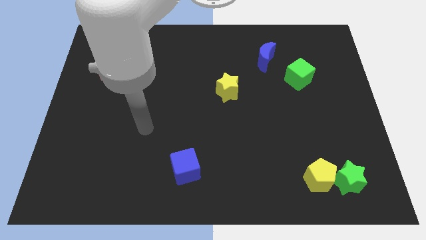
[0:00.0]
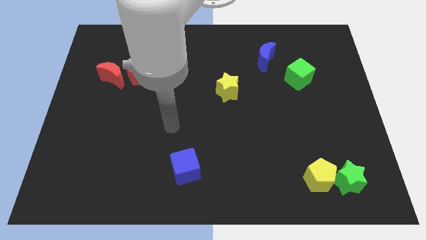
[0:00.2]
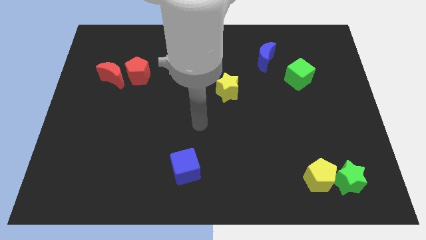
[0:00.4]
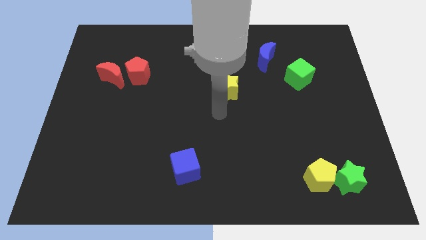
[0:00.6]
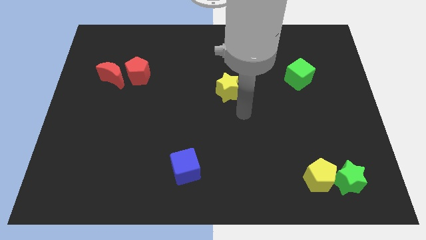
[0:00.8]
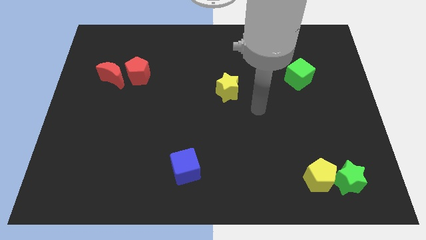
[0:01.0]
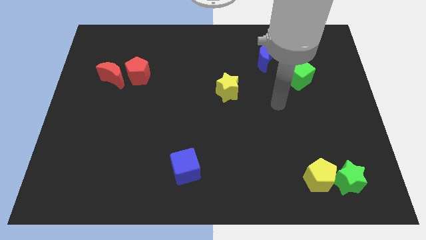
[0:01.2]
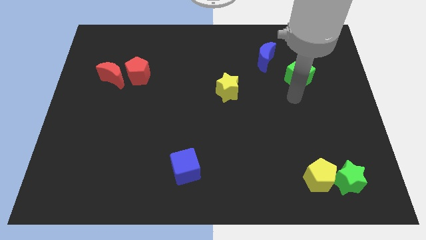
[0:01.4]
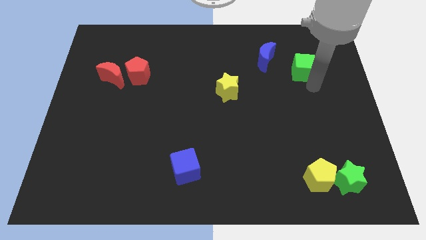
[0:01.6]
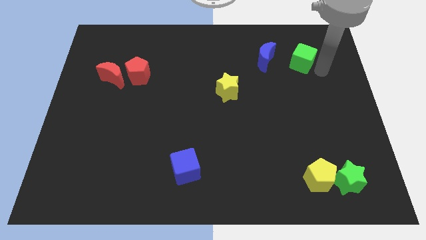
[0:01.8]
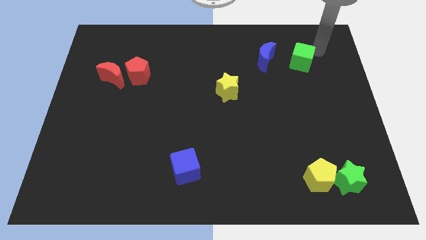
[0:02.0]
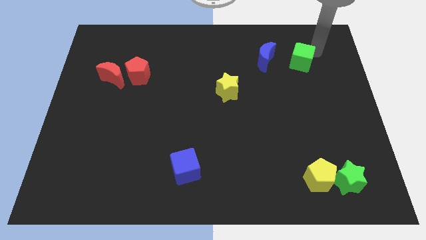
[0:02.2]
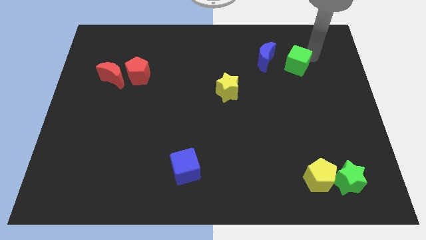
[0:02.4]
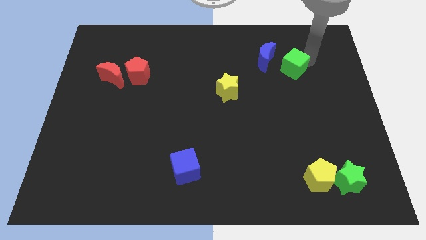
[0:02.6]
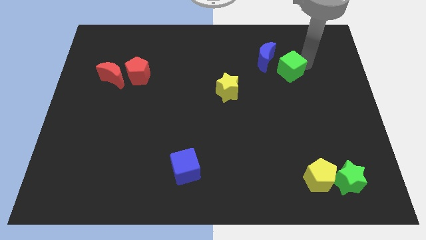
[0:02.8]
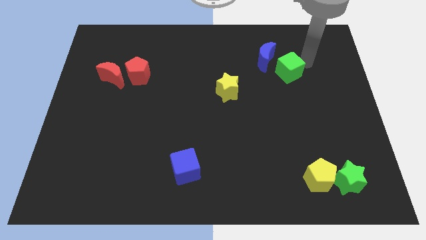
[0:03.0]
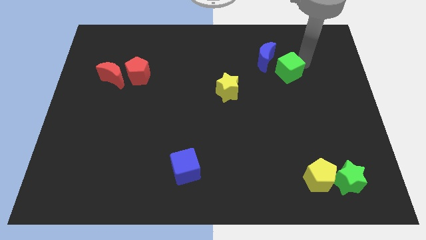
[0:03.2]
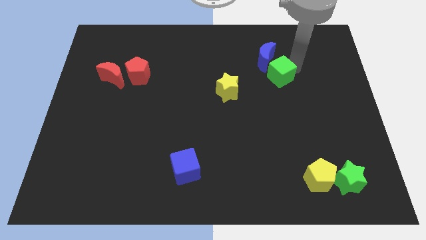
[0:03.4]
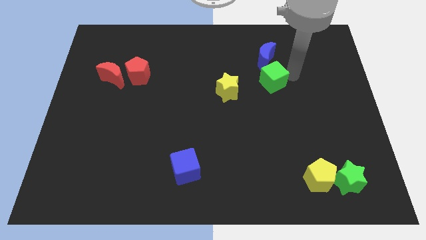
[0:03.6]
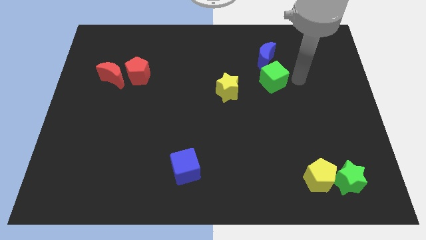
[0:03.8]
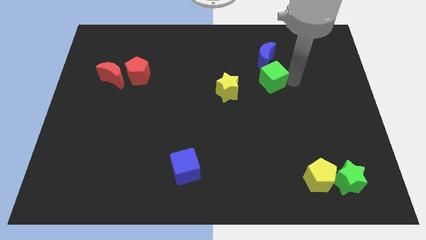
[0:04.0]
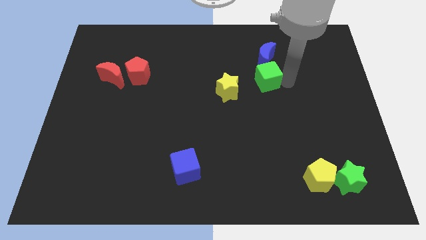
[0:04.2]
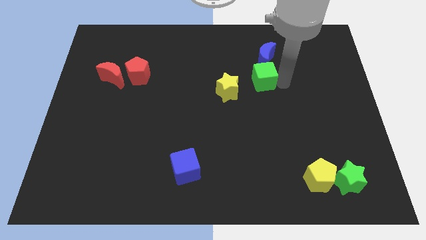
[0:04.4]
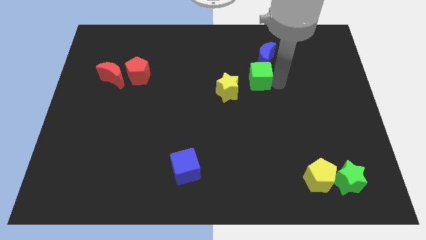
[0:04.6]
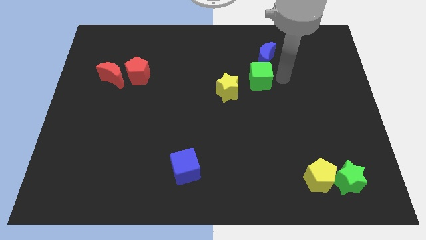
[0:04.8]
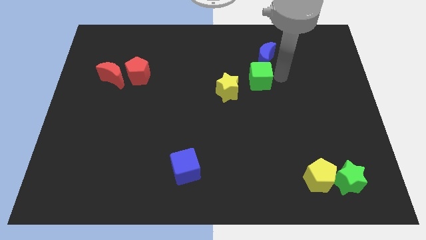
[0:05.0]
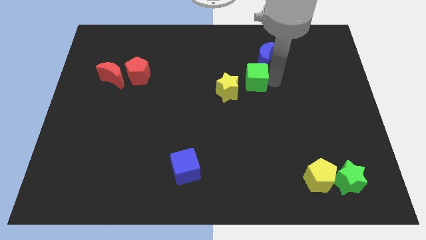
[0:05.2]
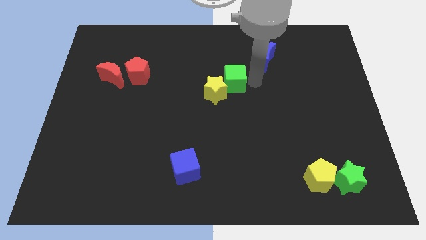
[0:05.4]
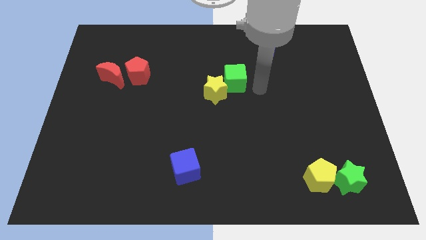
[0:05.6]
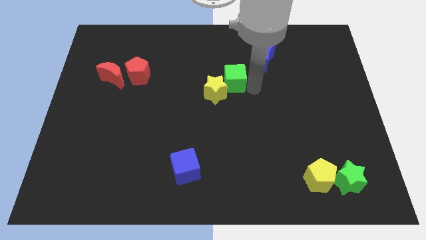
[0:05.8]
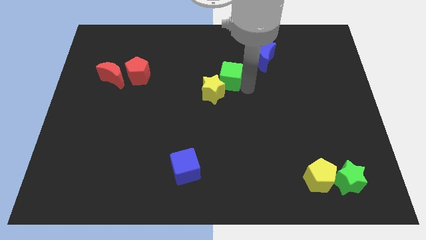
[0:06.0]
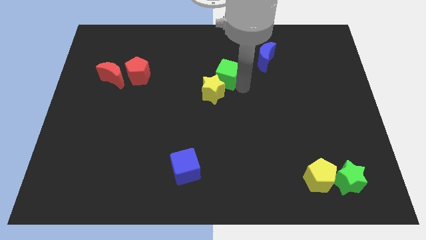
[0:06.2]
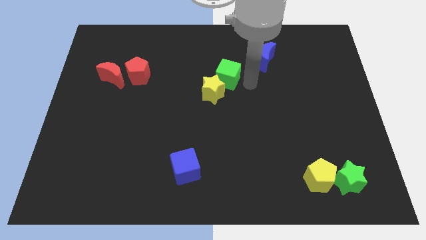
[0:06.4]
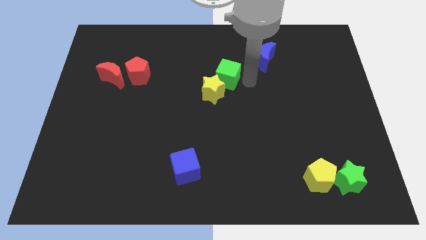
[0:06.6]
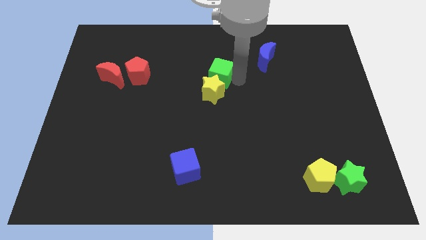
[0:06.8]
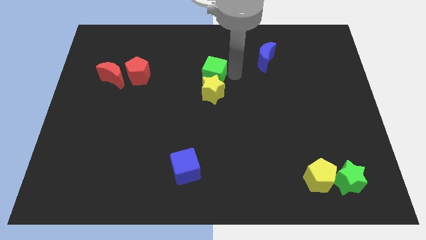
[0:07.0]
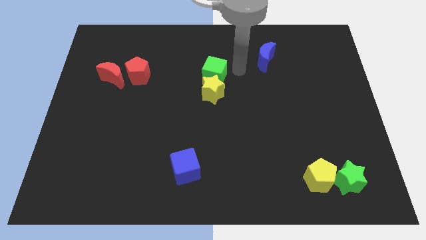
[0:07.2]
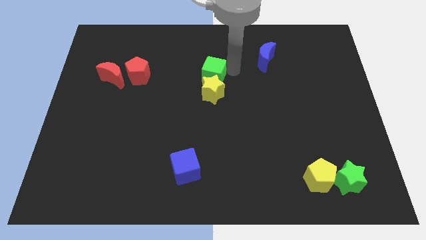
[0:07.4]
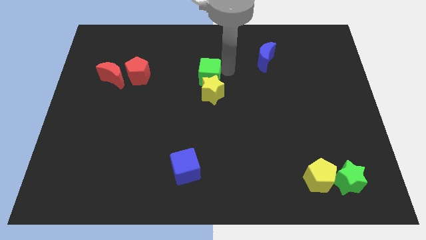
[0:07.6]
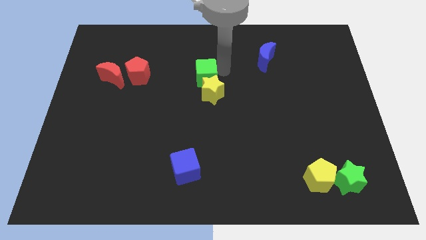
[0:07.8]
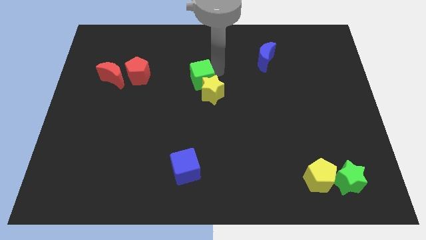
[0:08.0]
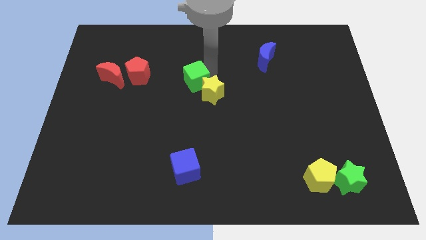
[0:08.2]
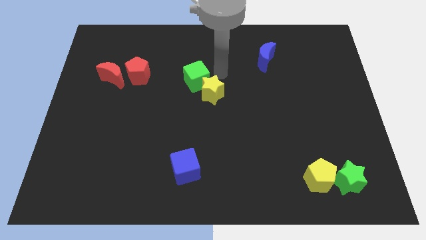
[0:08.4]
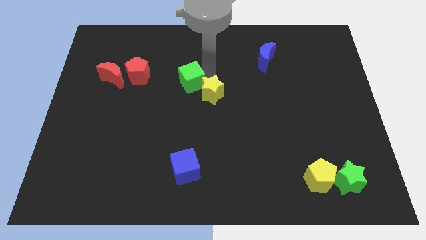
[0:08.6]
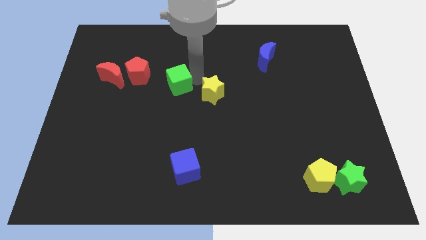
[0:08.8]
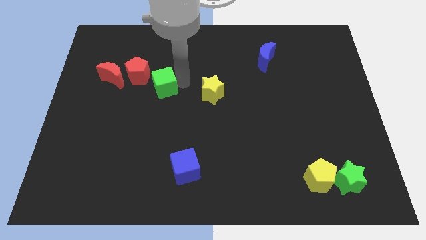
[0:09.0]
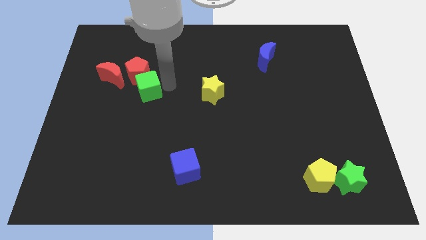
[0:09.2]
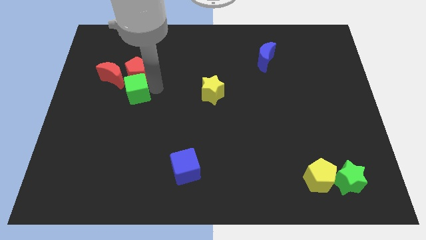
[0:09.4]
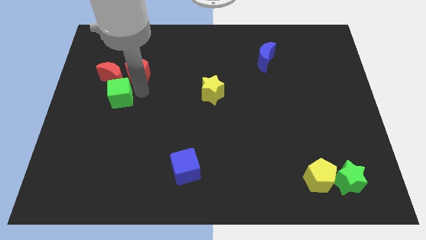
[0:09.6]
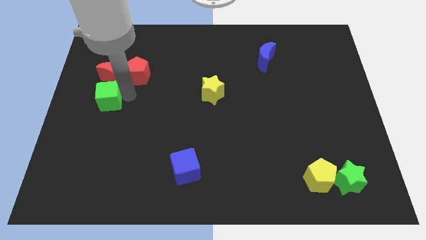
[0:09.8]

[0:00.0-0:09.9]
push the green cube to the center left

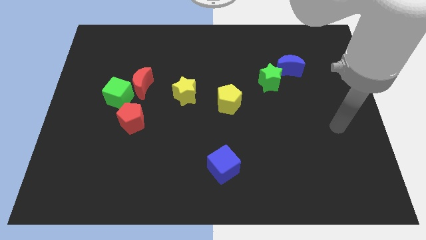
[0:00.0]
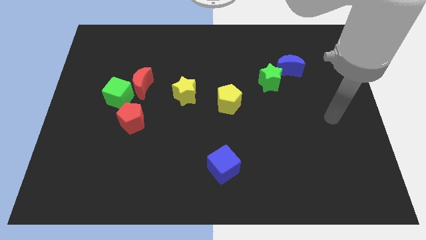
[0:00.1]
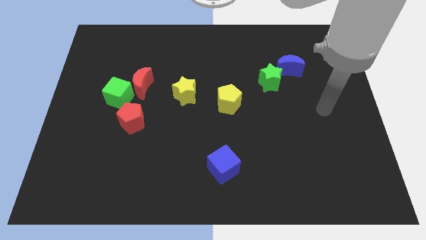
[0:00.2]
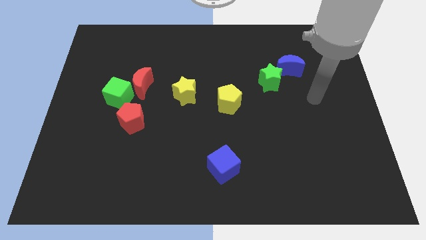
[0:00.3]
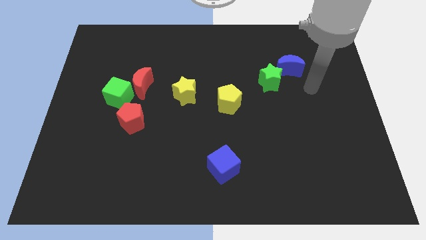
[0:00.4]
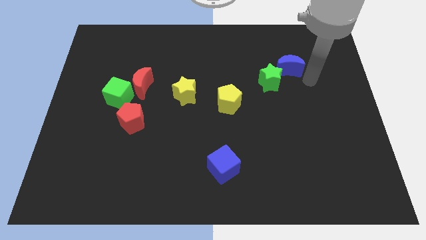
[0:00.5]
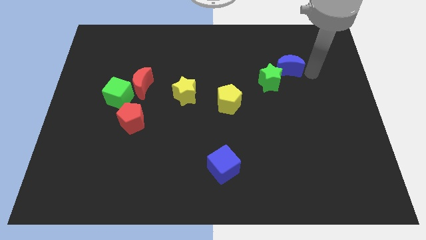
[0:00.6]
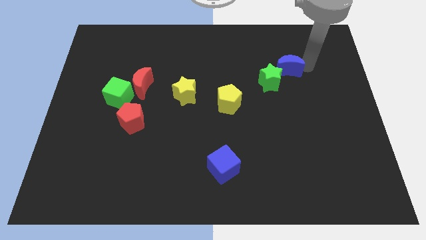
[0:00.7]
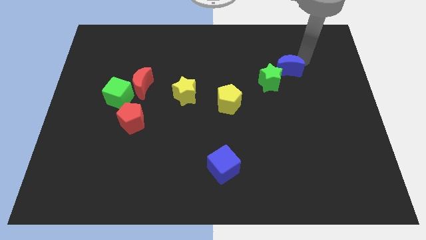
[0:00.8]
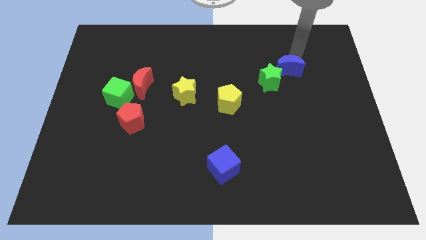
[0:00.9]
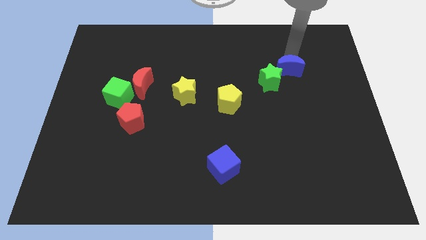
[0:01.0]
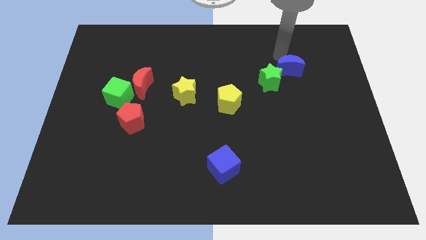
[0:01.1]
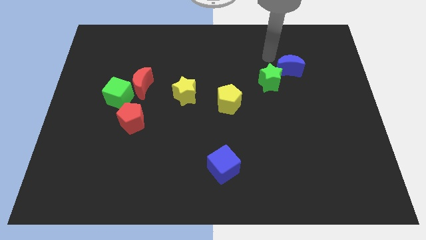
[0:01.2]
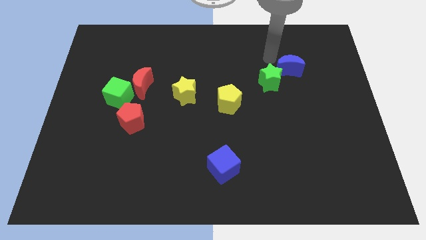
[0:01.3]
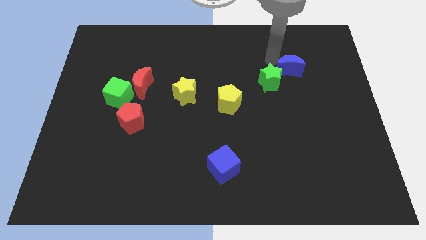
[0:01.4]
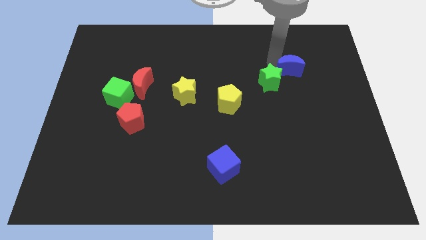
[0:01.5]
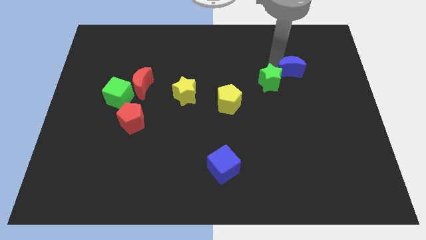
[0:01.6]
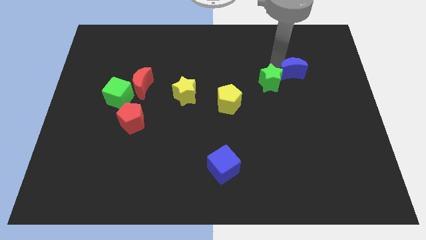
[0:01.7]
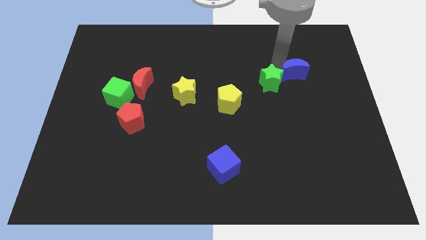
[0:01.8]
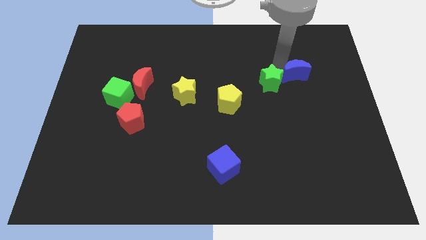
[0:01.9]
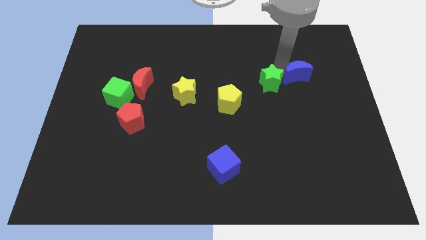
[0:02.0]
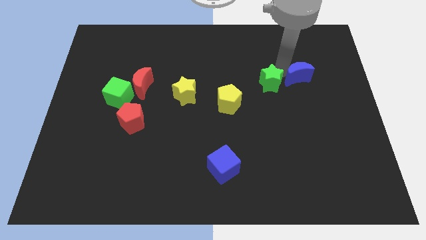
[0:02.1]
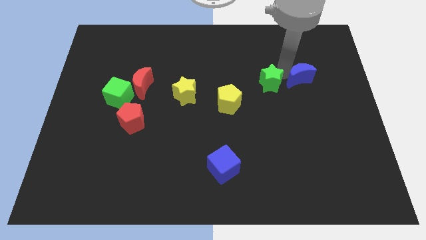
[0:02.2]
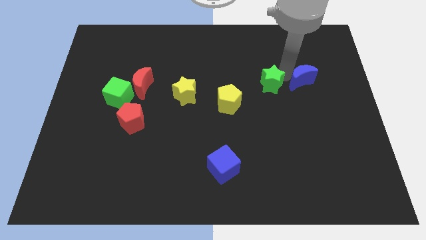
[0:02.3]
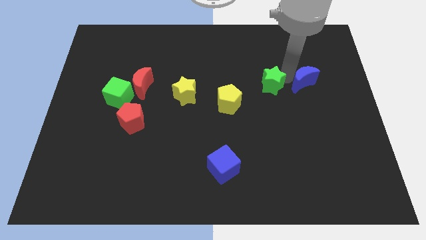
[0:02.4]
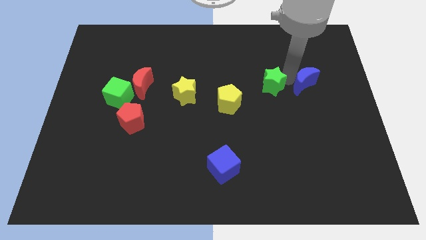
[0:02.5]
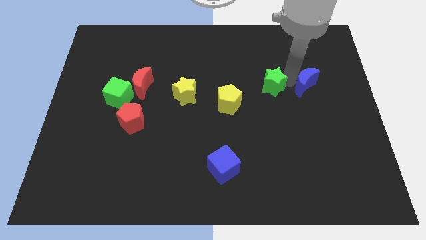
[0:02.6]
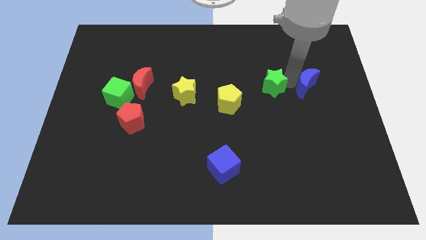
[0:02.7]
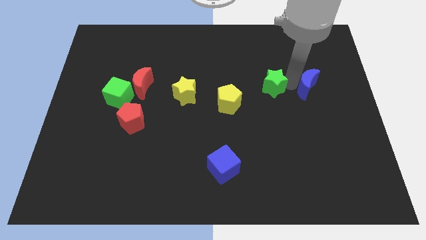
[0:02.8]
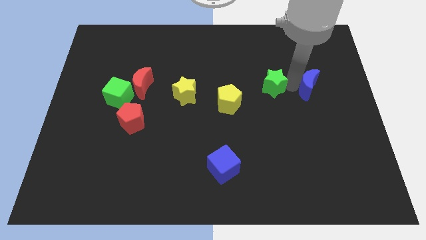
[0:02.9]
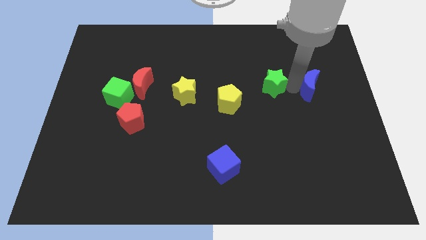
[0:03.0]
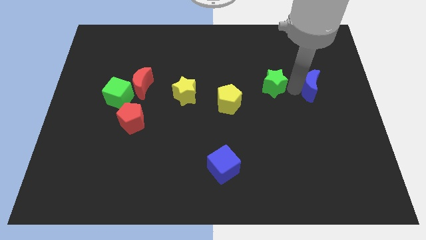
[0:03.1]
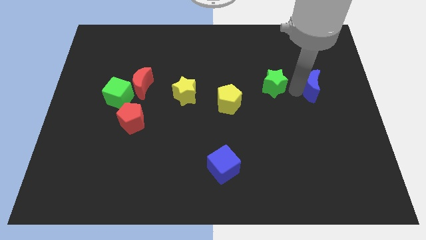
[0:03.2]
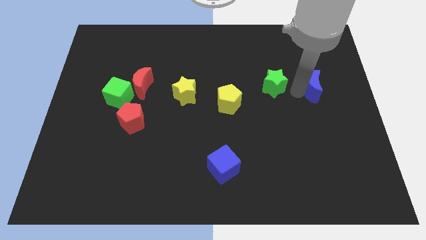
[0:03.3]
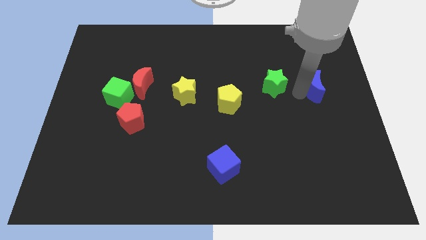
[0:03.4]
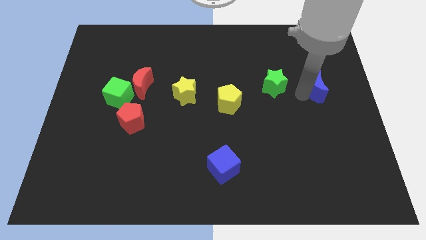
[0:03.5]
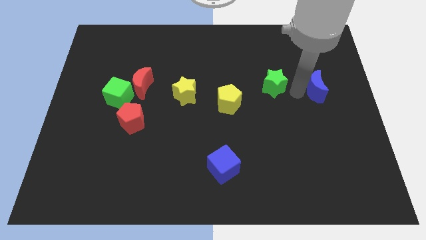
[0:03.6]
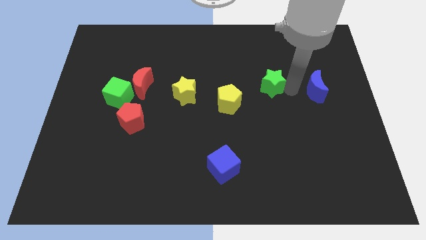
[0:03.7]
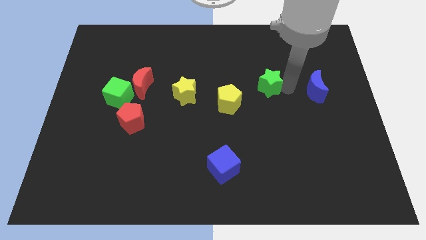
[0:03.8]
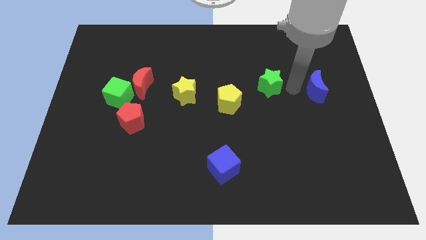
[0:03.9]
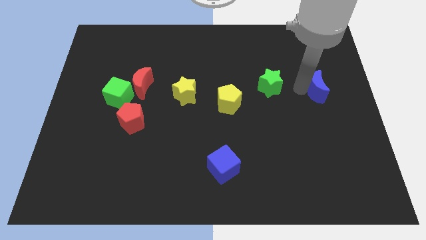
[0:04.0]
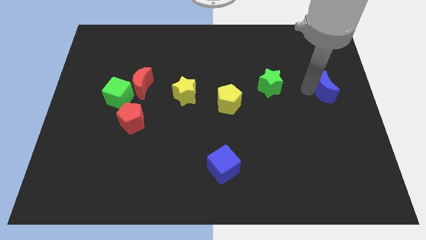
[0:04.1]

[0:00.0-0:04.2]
move the blue moon to the right side of the board
